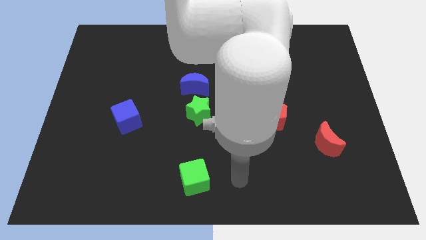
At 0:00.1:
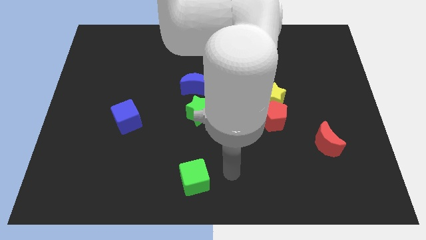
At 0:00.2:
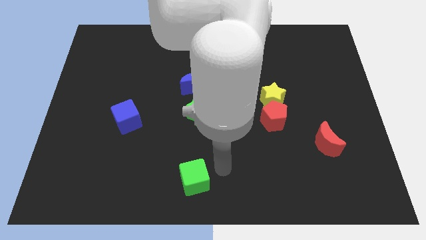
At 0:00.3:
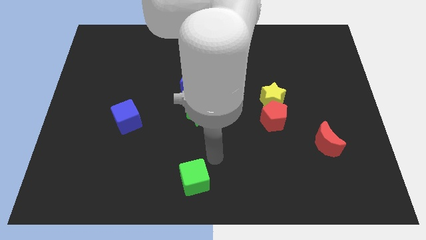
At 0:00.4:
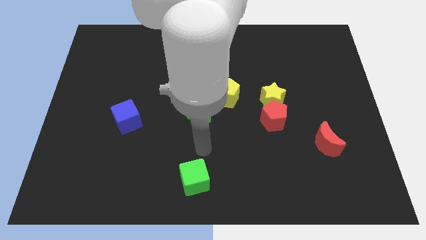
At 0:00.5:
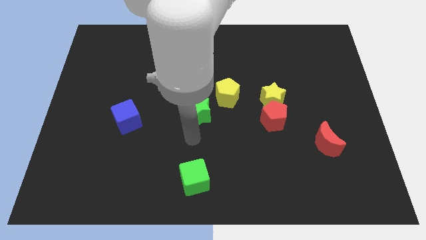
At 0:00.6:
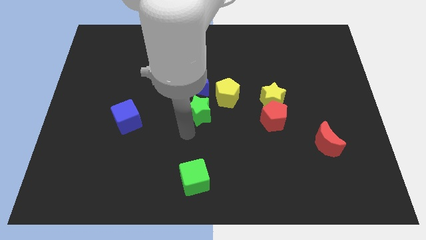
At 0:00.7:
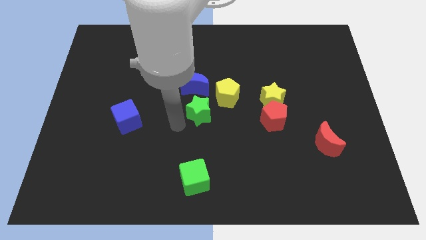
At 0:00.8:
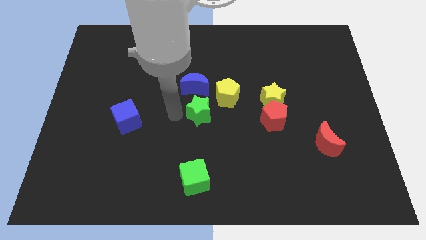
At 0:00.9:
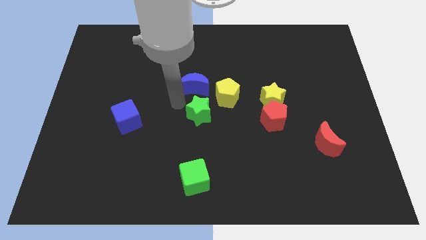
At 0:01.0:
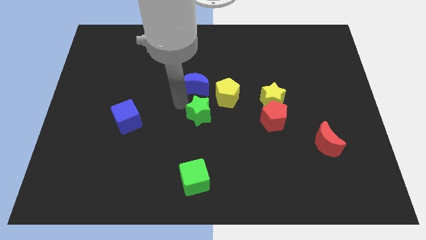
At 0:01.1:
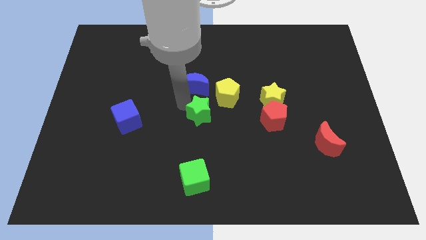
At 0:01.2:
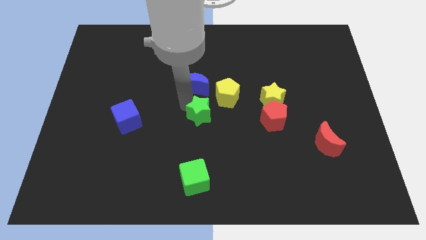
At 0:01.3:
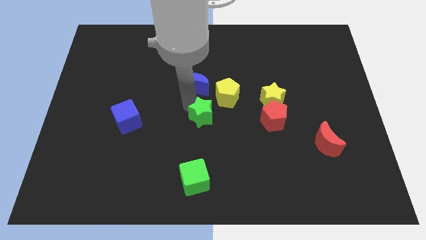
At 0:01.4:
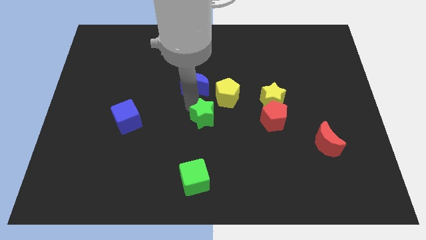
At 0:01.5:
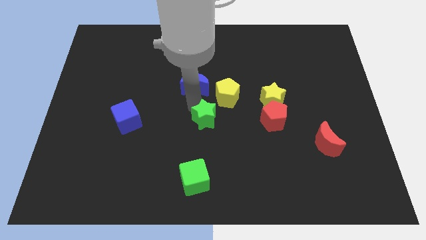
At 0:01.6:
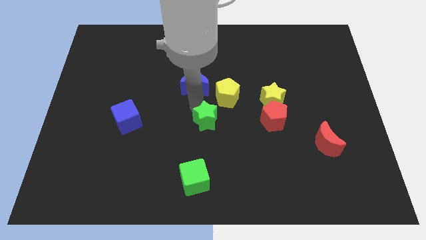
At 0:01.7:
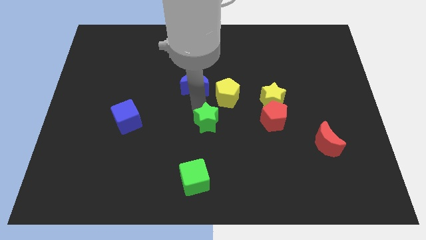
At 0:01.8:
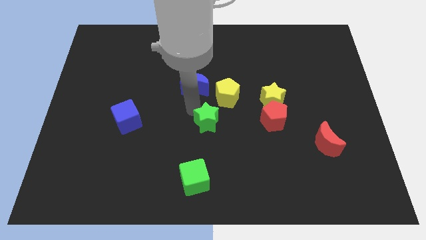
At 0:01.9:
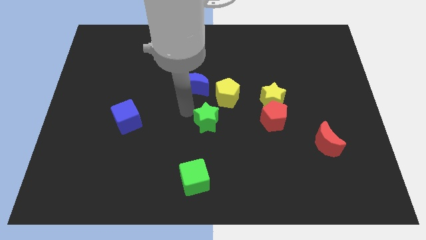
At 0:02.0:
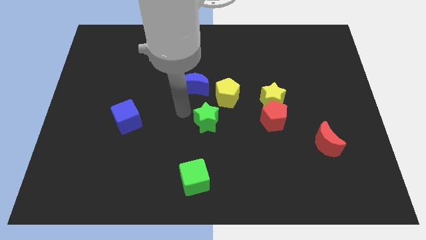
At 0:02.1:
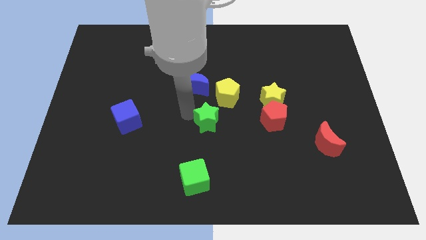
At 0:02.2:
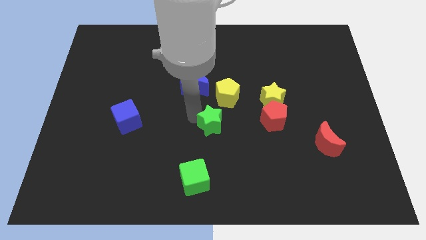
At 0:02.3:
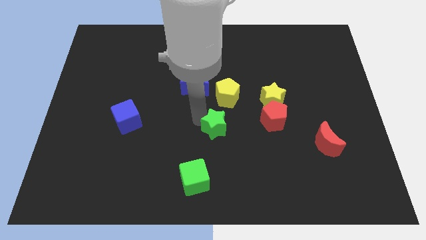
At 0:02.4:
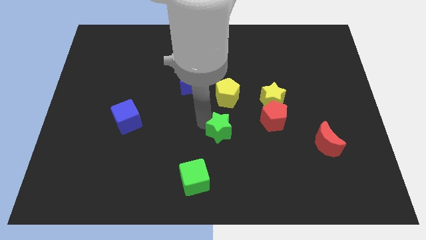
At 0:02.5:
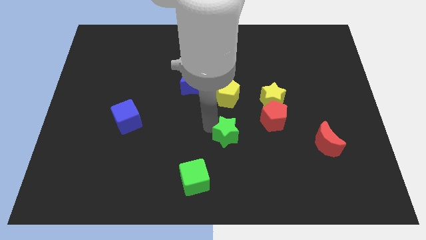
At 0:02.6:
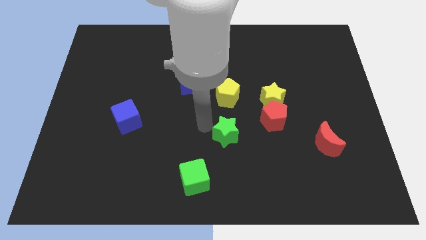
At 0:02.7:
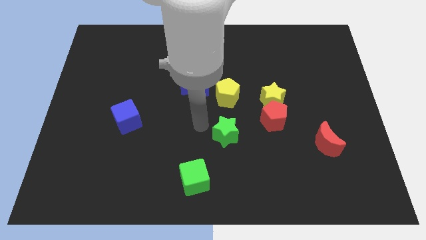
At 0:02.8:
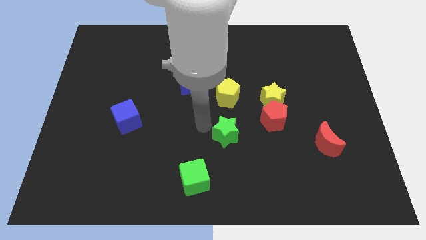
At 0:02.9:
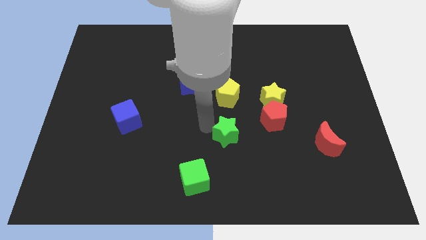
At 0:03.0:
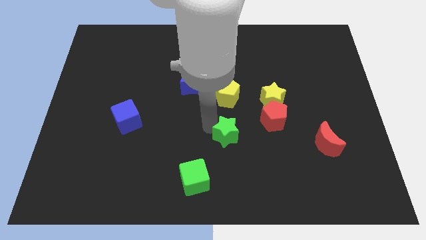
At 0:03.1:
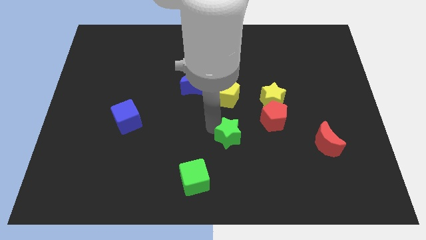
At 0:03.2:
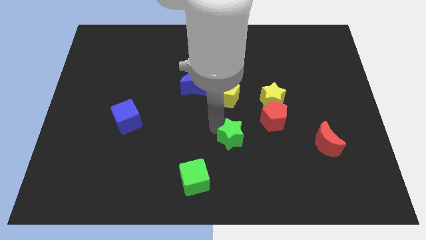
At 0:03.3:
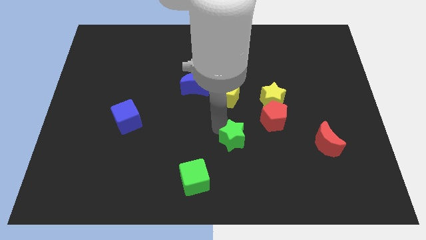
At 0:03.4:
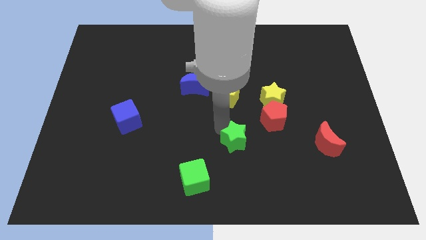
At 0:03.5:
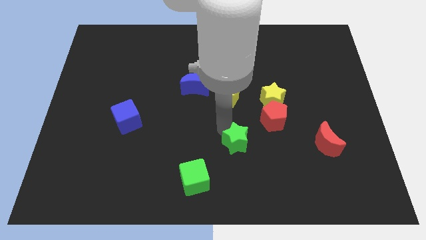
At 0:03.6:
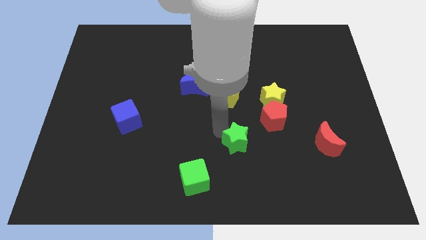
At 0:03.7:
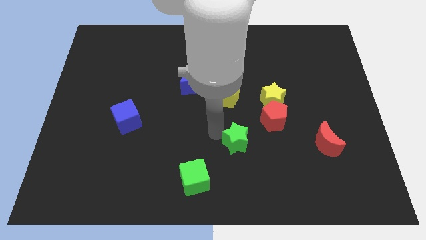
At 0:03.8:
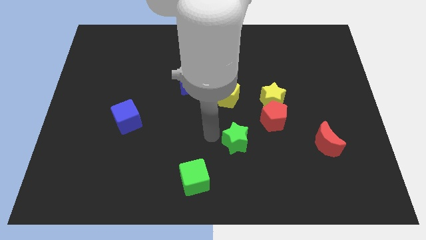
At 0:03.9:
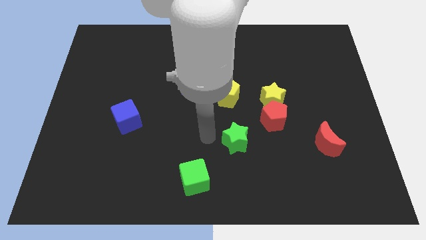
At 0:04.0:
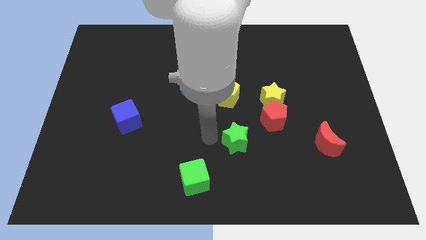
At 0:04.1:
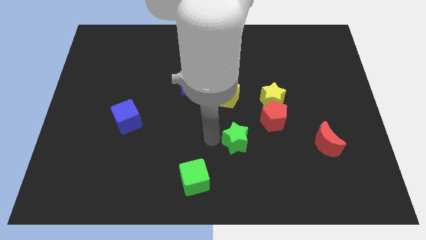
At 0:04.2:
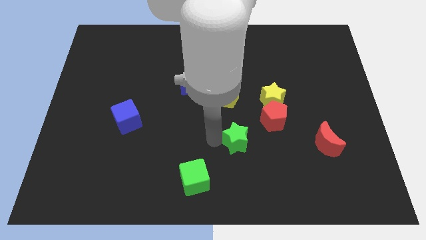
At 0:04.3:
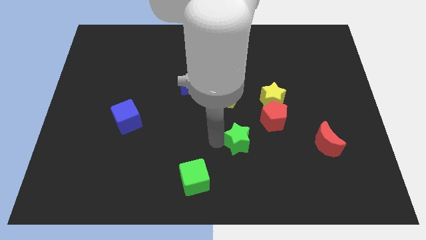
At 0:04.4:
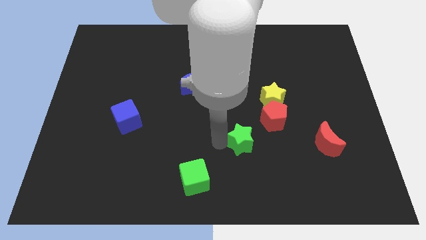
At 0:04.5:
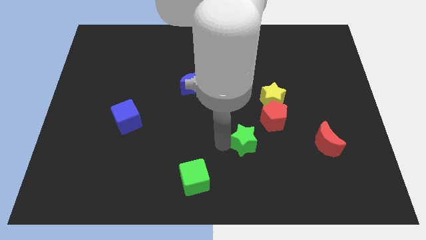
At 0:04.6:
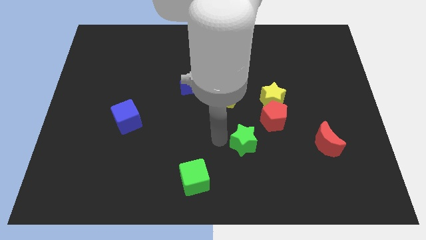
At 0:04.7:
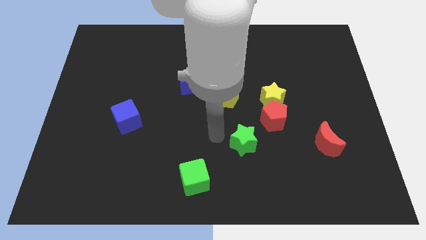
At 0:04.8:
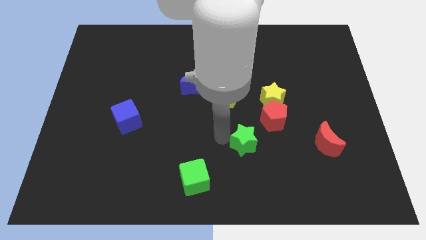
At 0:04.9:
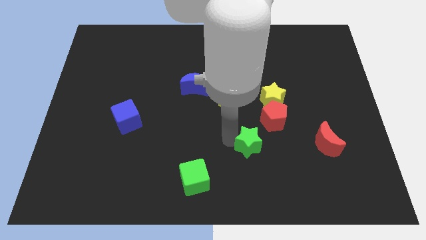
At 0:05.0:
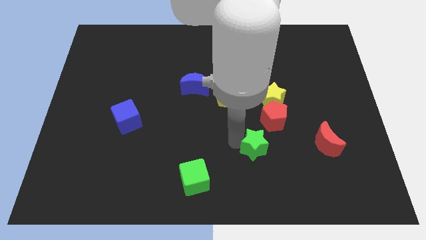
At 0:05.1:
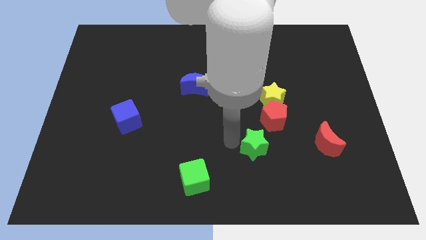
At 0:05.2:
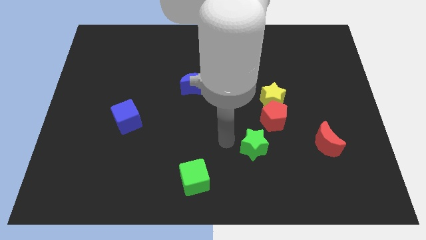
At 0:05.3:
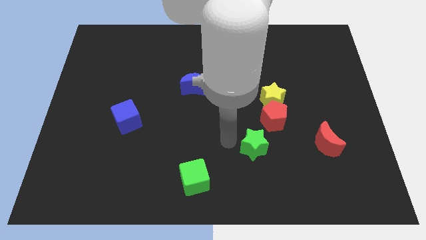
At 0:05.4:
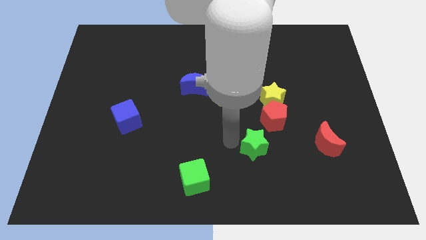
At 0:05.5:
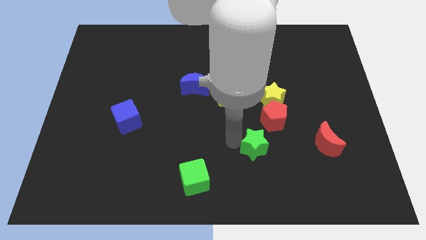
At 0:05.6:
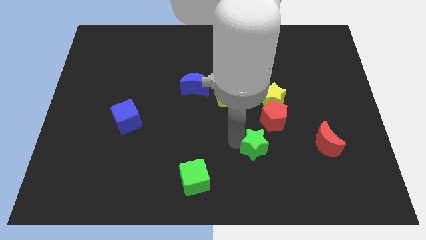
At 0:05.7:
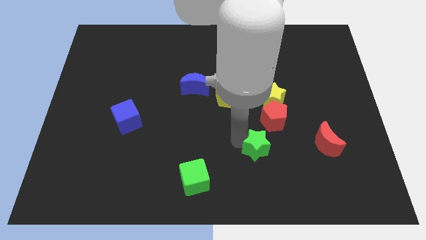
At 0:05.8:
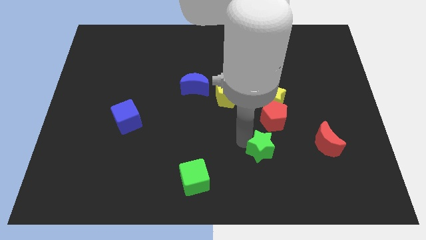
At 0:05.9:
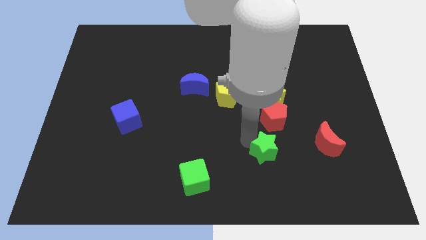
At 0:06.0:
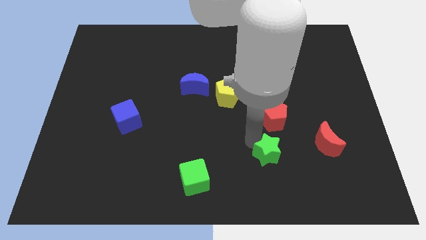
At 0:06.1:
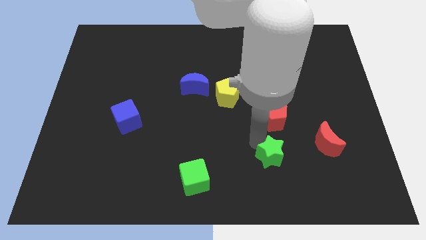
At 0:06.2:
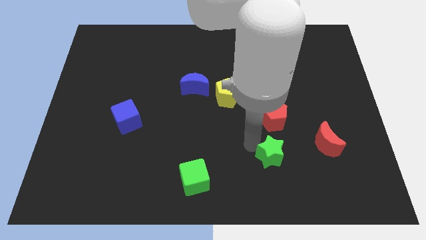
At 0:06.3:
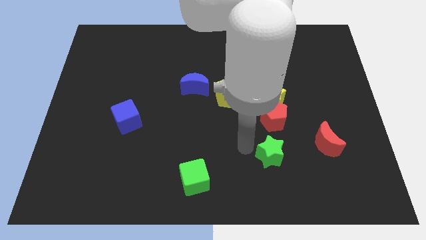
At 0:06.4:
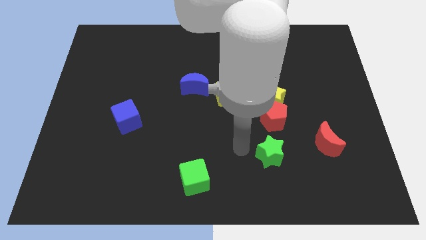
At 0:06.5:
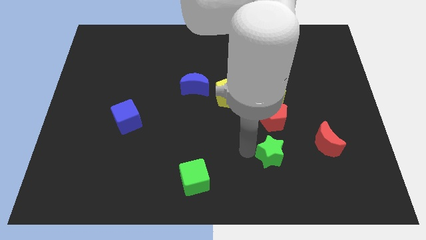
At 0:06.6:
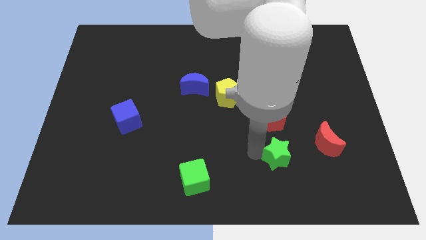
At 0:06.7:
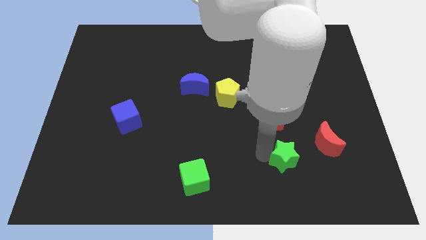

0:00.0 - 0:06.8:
move the green star diagonally down and to the left of the red moon
